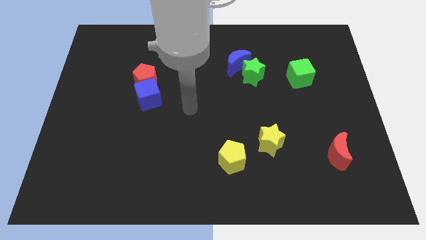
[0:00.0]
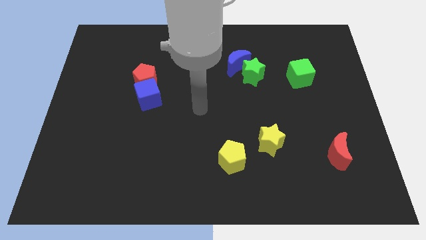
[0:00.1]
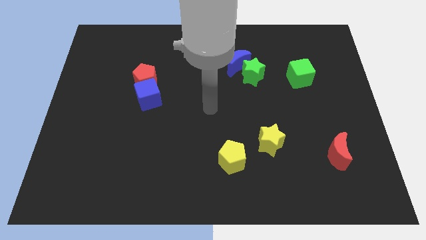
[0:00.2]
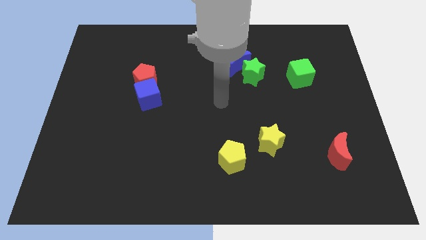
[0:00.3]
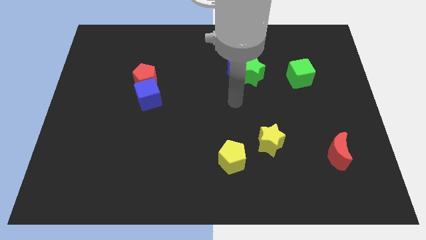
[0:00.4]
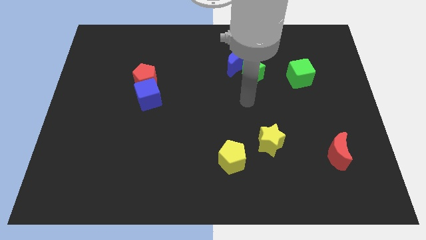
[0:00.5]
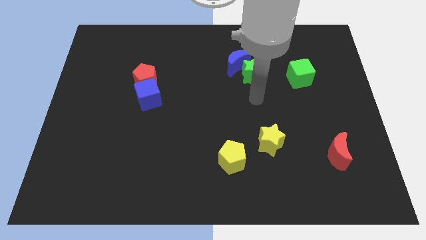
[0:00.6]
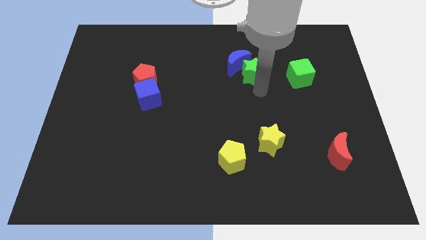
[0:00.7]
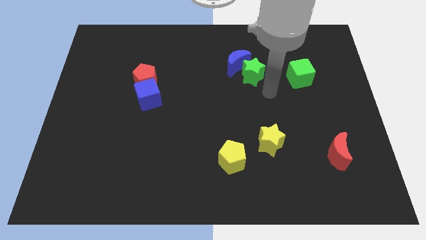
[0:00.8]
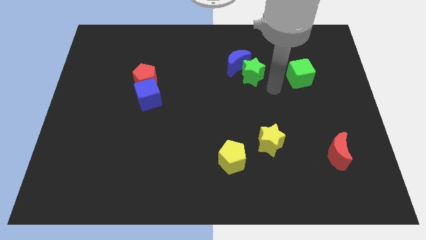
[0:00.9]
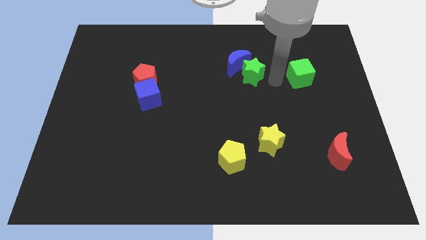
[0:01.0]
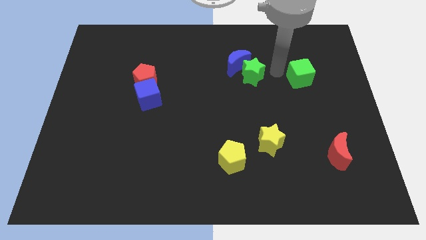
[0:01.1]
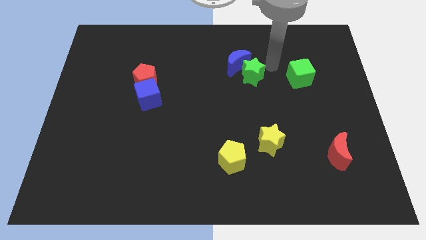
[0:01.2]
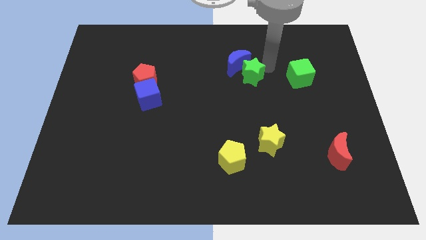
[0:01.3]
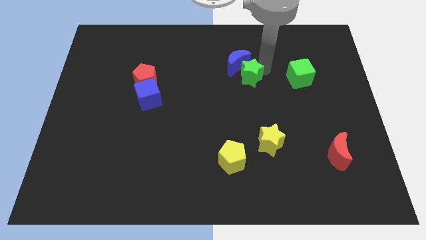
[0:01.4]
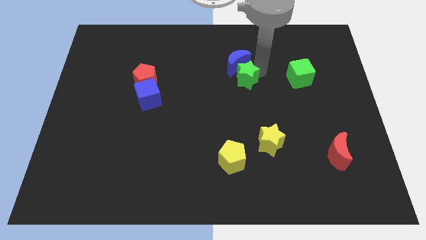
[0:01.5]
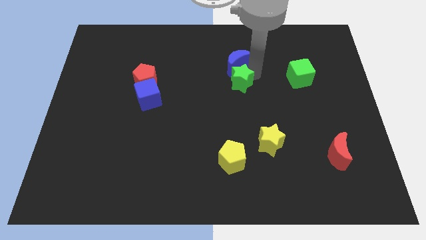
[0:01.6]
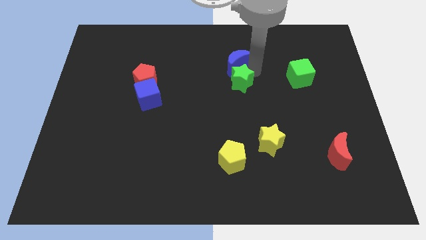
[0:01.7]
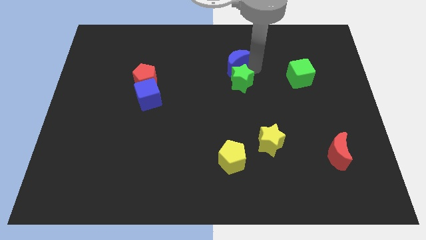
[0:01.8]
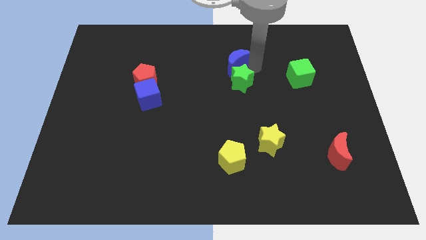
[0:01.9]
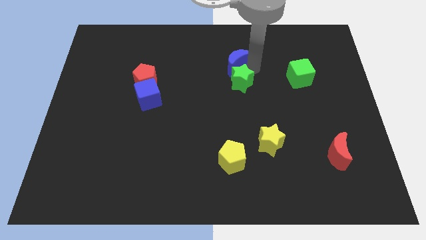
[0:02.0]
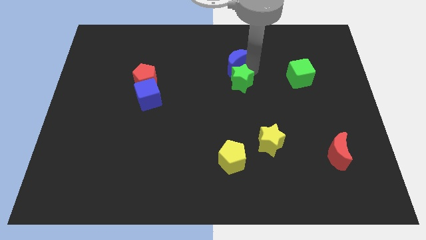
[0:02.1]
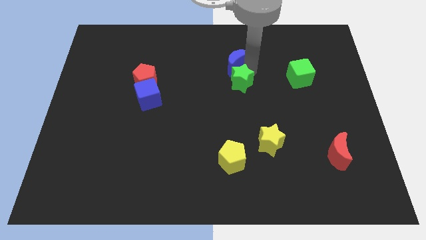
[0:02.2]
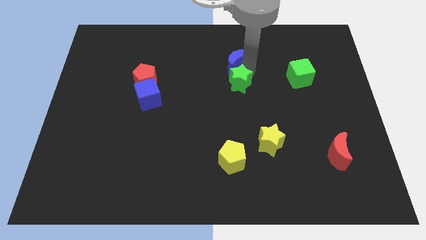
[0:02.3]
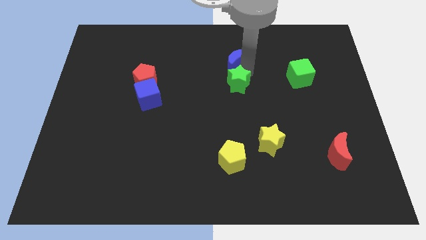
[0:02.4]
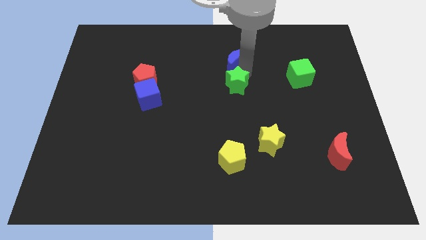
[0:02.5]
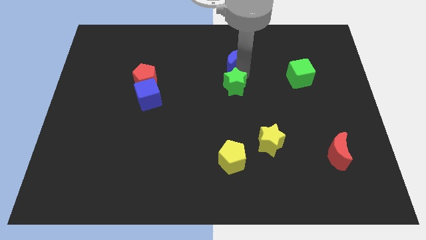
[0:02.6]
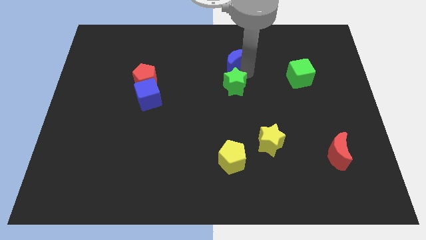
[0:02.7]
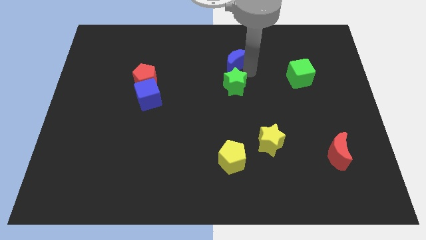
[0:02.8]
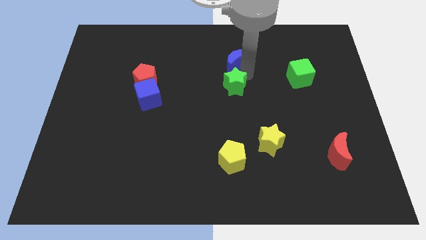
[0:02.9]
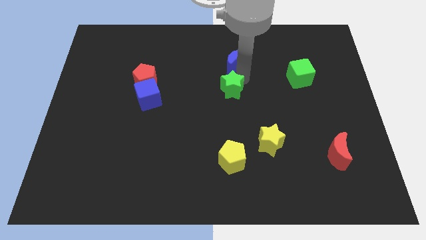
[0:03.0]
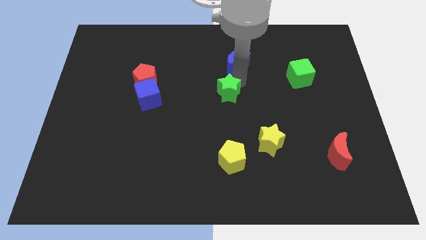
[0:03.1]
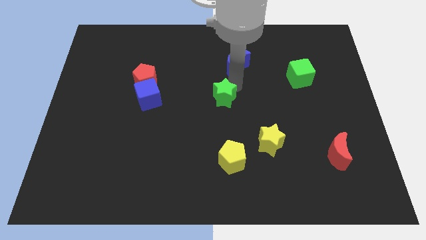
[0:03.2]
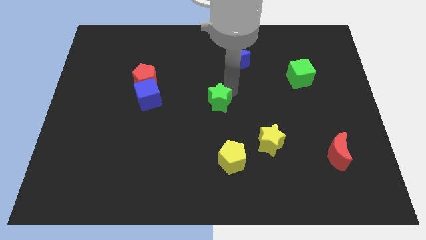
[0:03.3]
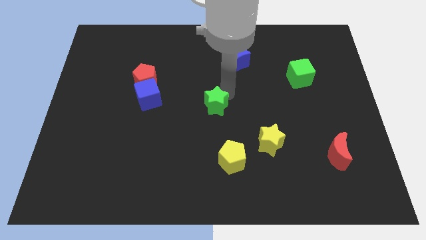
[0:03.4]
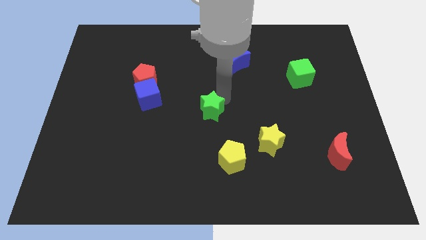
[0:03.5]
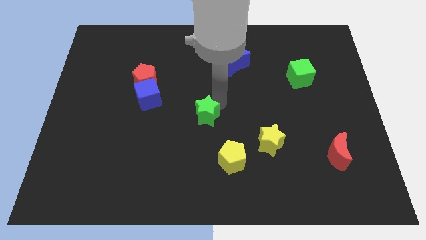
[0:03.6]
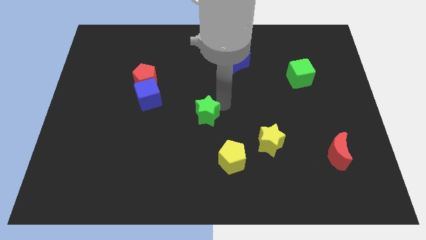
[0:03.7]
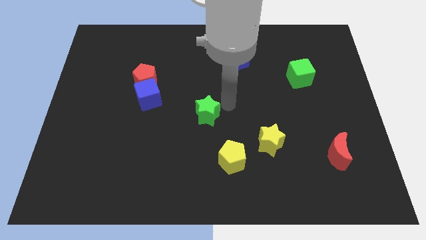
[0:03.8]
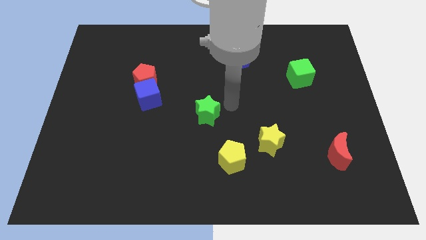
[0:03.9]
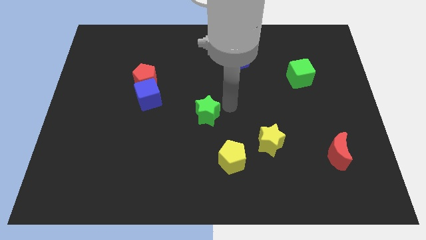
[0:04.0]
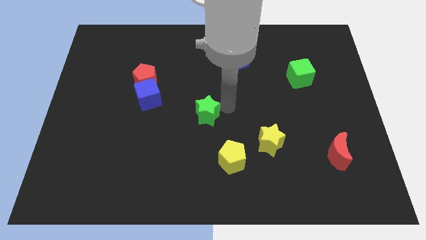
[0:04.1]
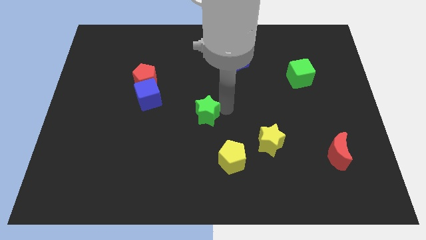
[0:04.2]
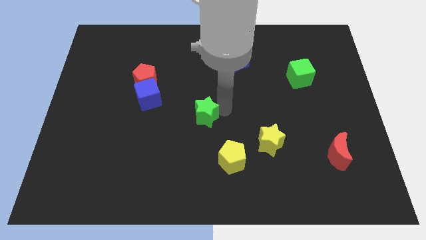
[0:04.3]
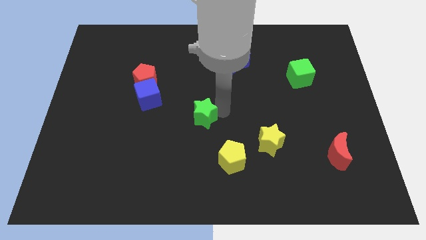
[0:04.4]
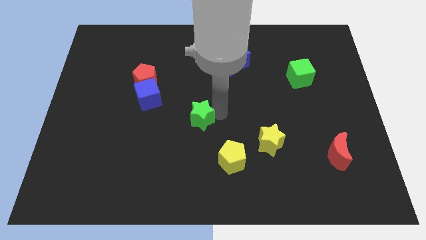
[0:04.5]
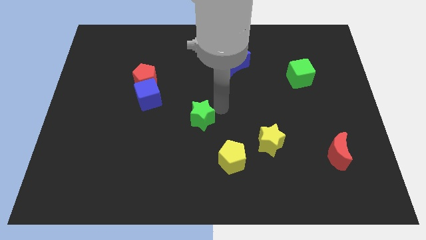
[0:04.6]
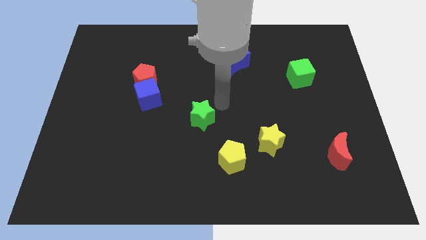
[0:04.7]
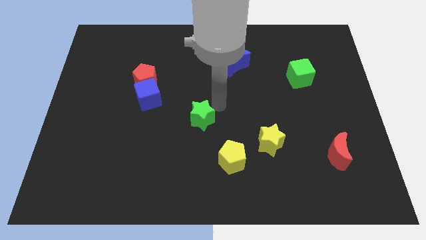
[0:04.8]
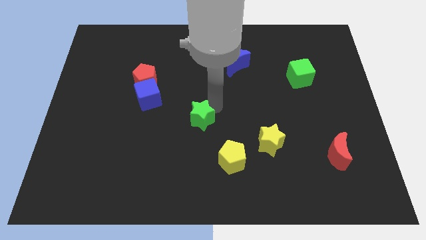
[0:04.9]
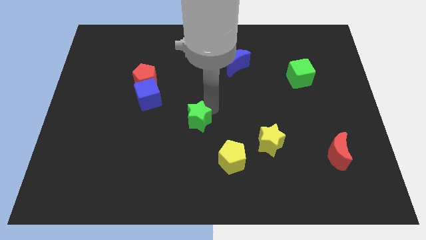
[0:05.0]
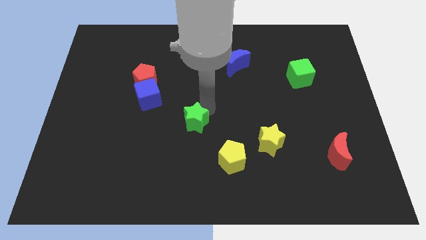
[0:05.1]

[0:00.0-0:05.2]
slide the green star diagonally down and to the left

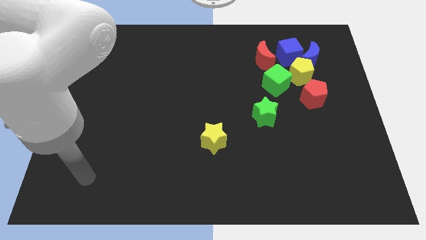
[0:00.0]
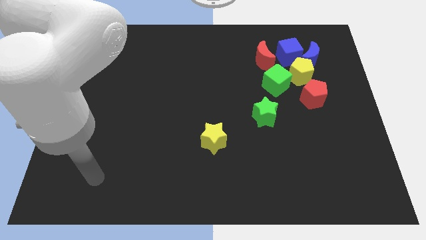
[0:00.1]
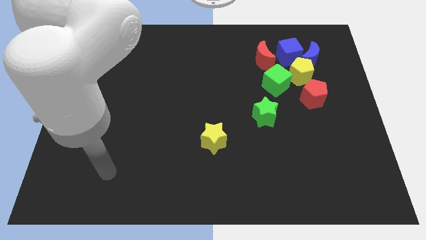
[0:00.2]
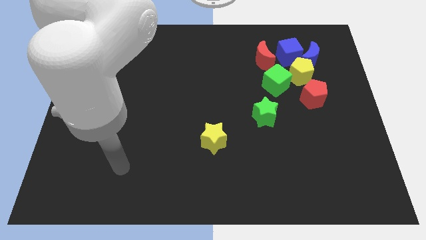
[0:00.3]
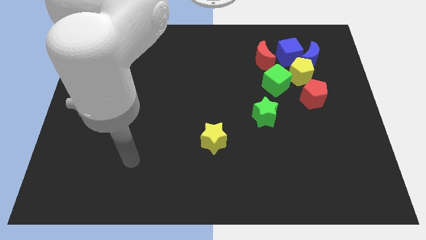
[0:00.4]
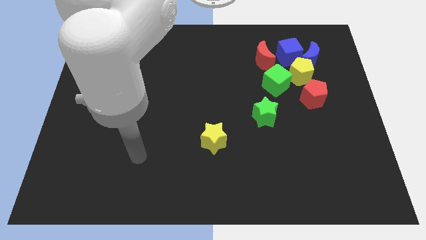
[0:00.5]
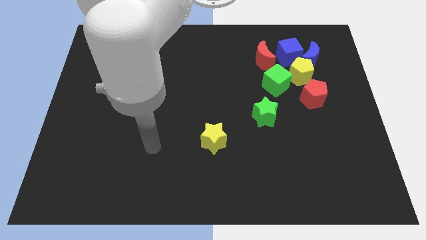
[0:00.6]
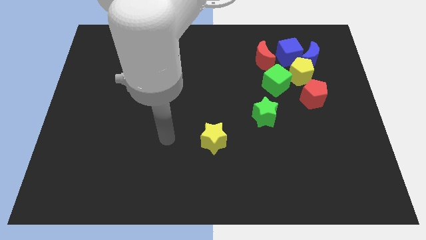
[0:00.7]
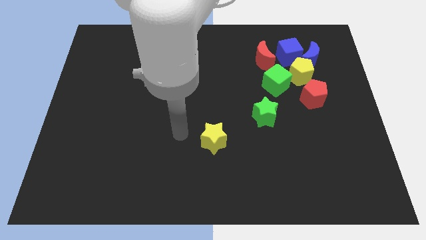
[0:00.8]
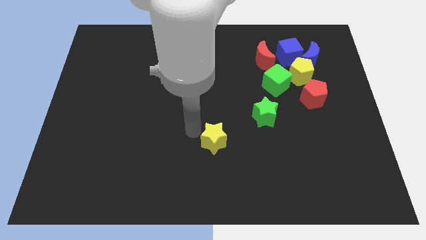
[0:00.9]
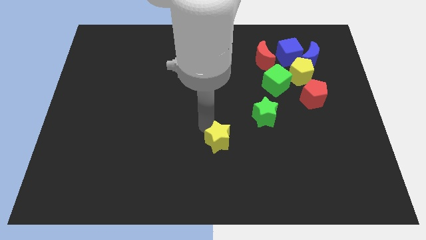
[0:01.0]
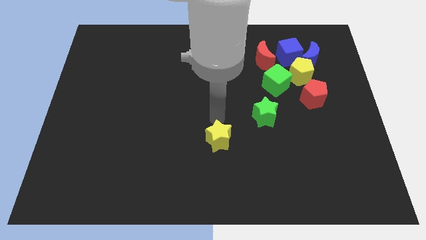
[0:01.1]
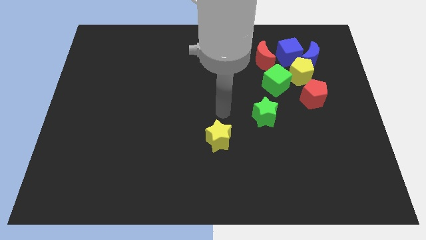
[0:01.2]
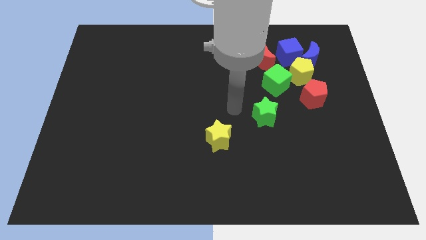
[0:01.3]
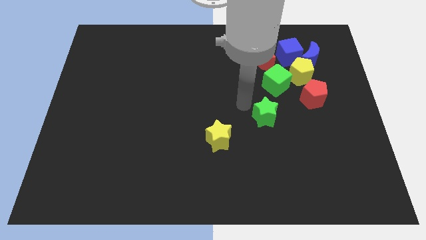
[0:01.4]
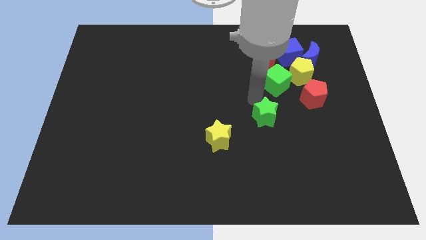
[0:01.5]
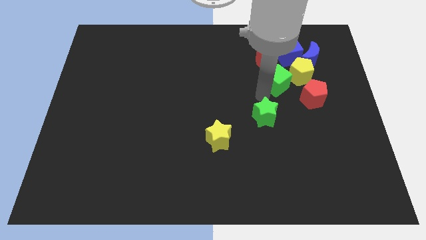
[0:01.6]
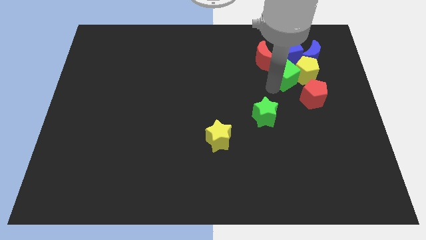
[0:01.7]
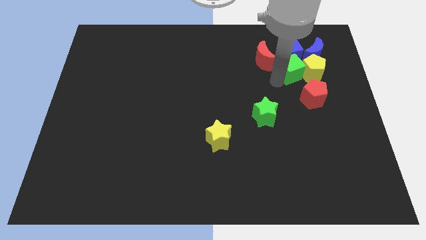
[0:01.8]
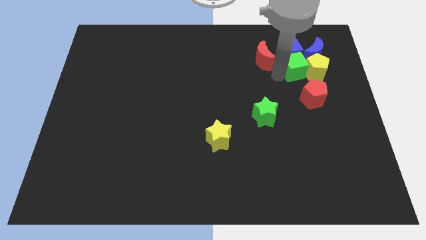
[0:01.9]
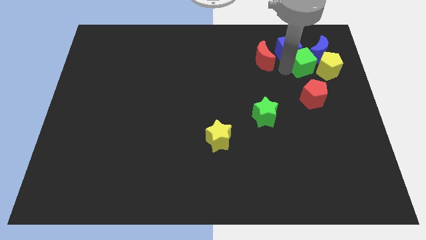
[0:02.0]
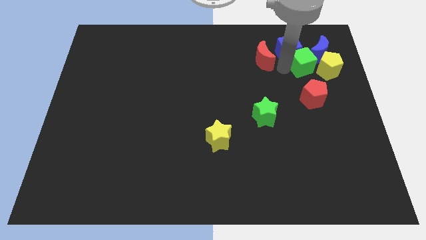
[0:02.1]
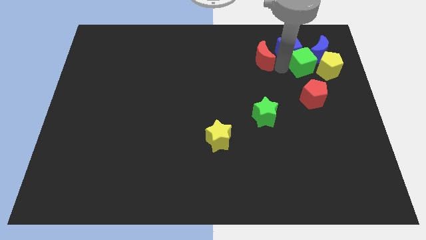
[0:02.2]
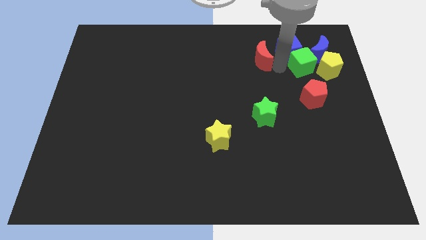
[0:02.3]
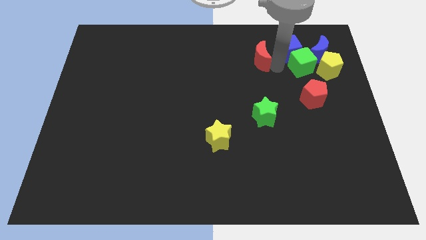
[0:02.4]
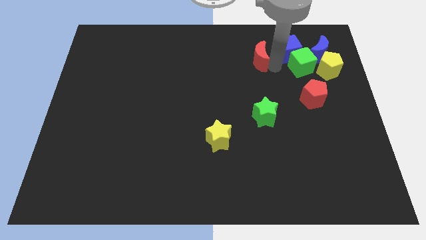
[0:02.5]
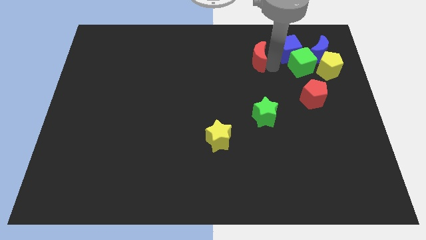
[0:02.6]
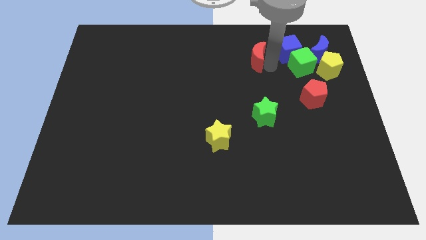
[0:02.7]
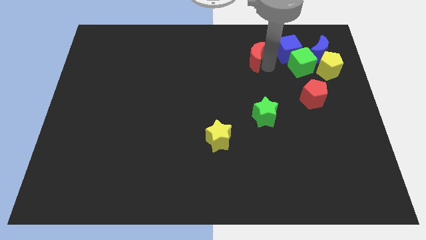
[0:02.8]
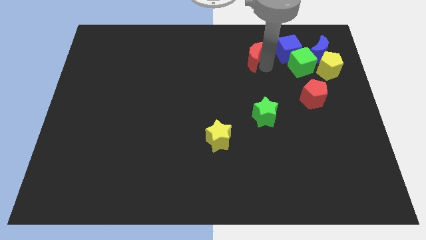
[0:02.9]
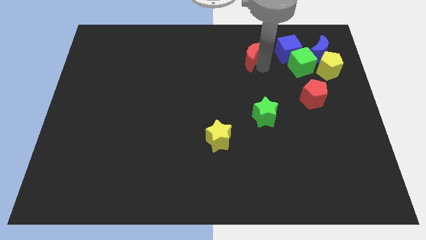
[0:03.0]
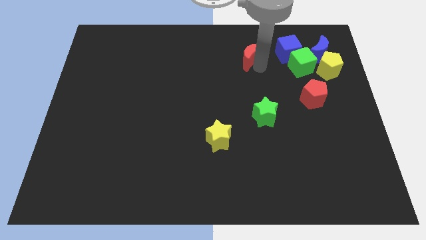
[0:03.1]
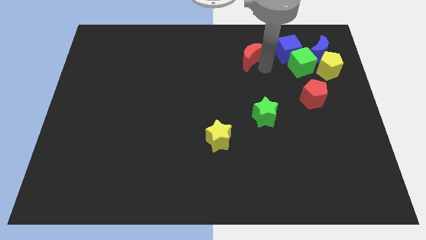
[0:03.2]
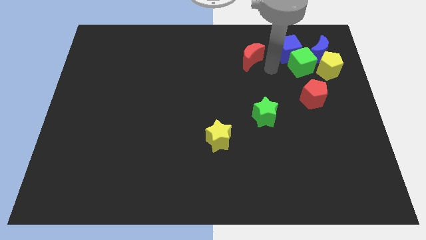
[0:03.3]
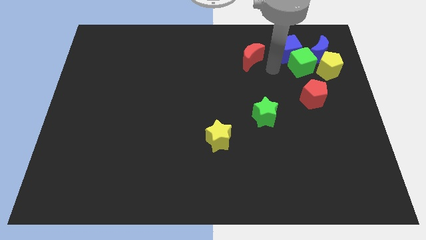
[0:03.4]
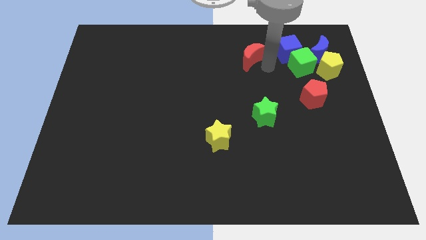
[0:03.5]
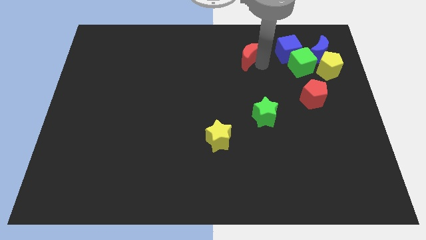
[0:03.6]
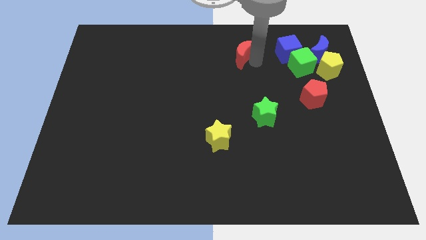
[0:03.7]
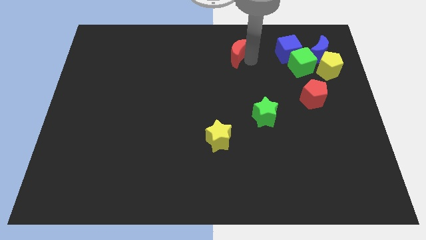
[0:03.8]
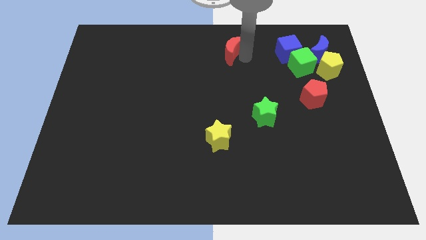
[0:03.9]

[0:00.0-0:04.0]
slide the red moon left a little bit
